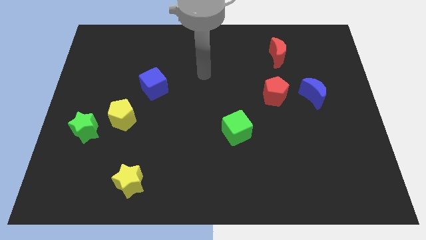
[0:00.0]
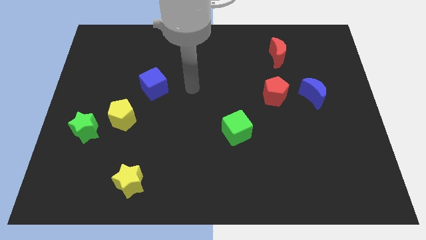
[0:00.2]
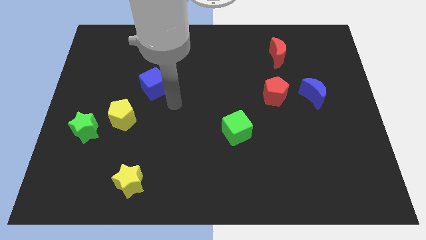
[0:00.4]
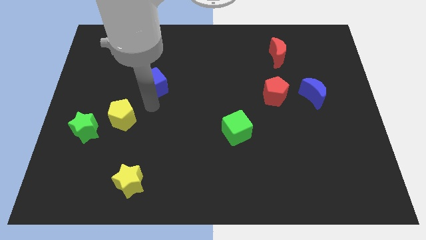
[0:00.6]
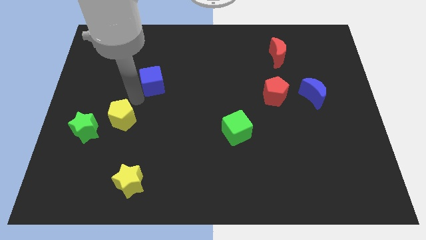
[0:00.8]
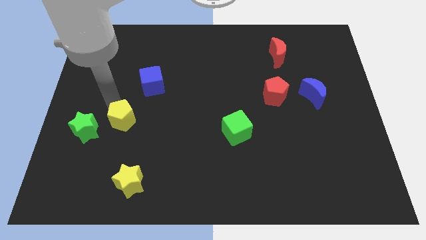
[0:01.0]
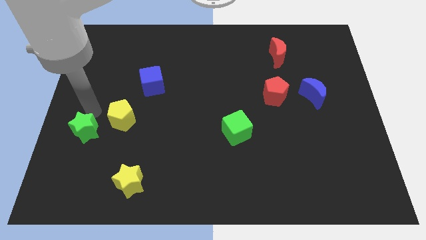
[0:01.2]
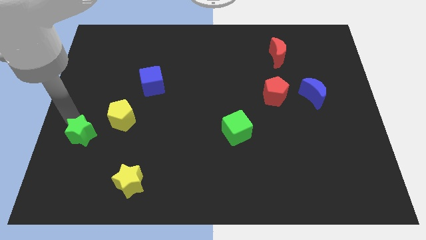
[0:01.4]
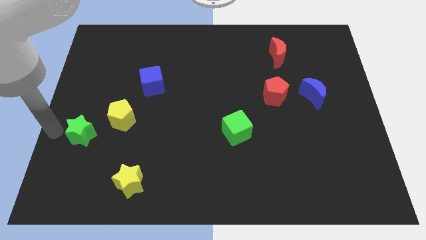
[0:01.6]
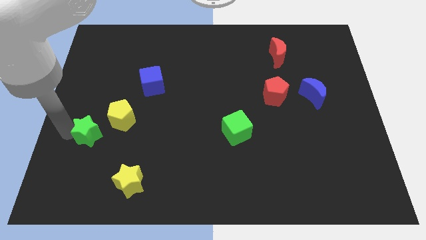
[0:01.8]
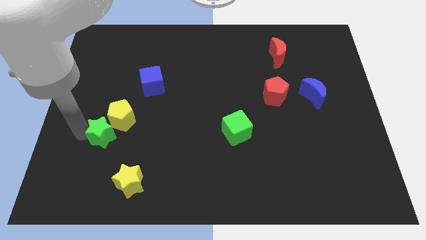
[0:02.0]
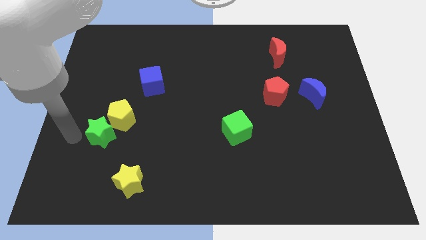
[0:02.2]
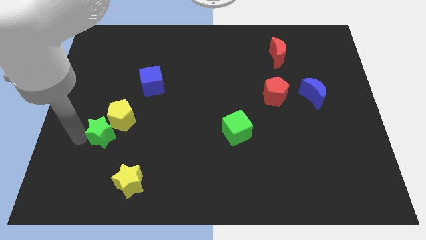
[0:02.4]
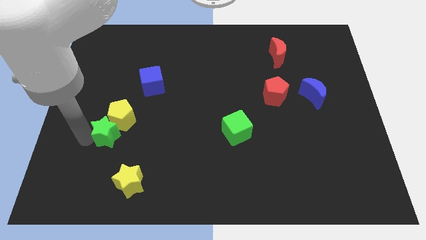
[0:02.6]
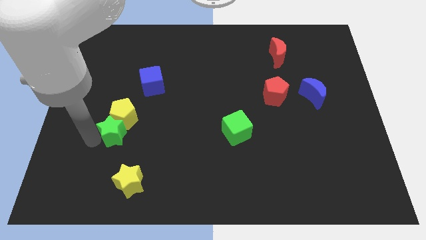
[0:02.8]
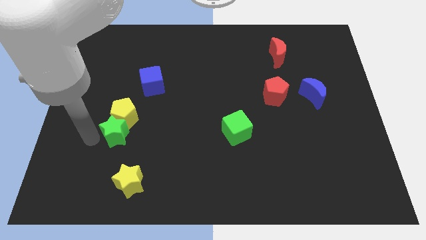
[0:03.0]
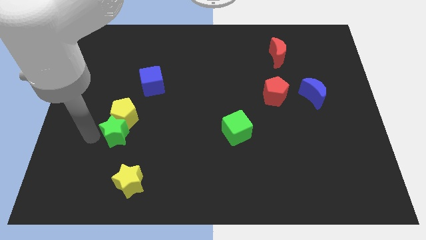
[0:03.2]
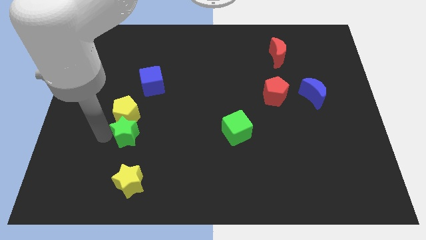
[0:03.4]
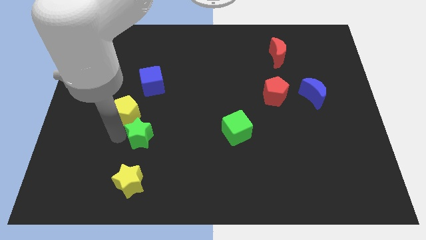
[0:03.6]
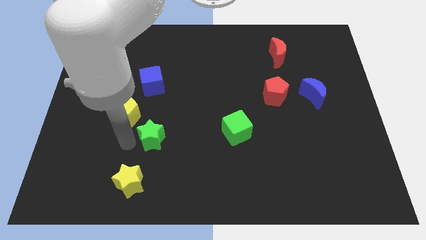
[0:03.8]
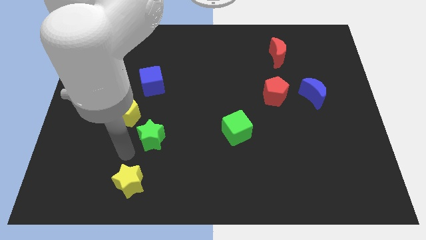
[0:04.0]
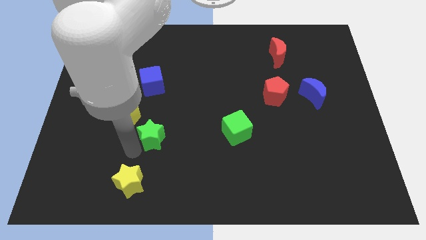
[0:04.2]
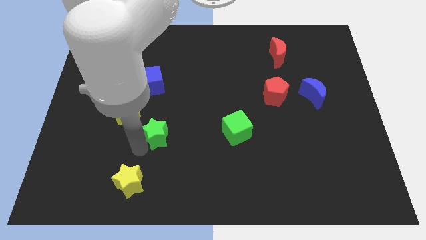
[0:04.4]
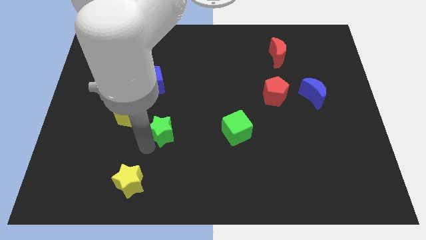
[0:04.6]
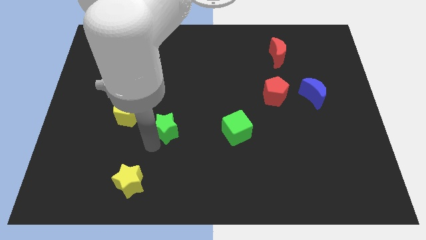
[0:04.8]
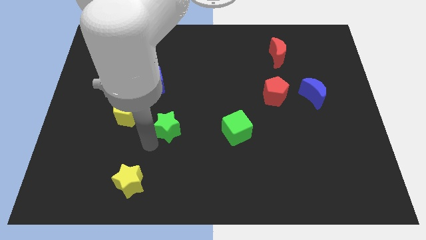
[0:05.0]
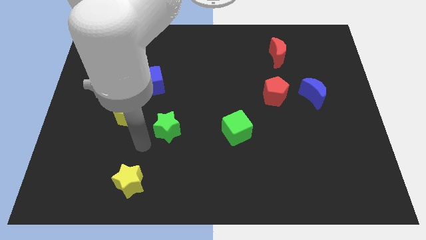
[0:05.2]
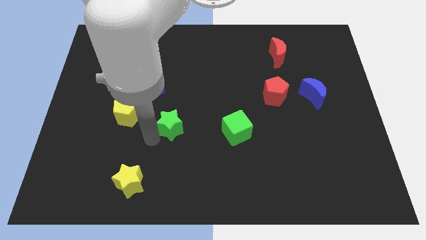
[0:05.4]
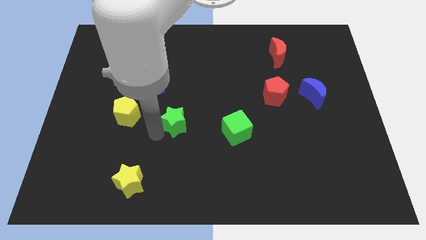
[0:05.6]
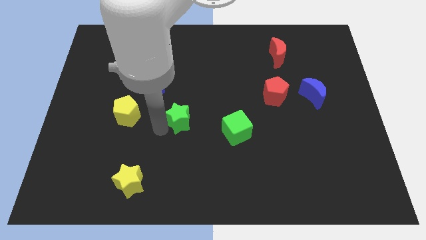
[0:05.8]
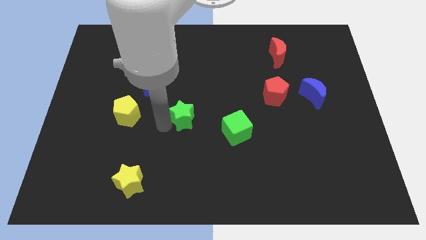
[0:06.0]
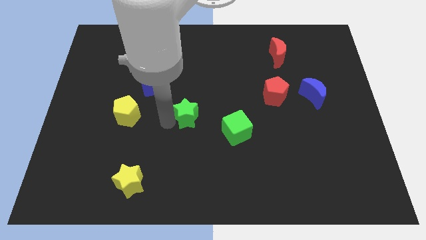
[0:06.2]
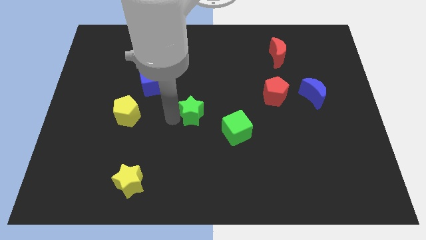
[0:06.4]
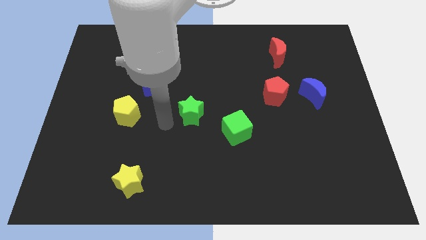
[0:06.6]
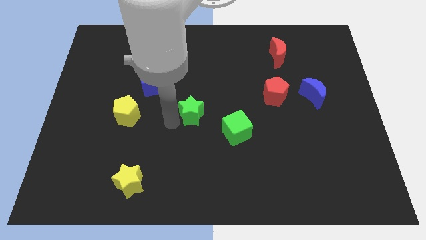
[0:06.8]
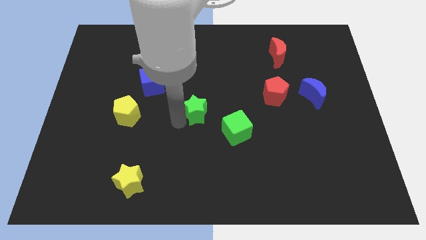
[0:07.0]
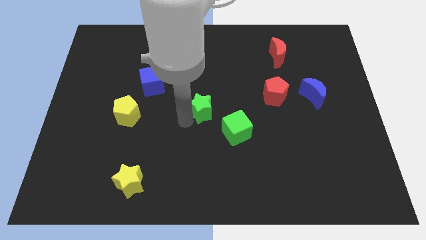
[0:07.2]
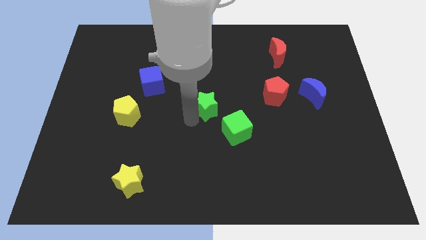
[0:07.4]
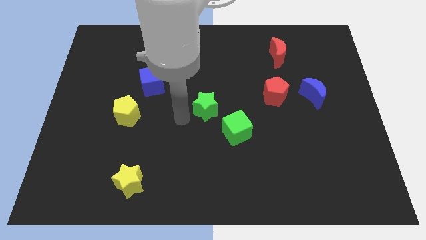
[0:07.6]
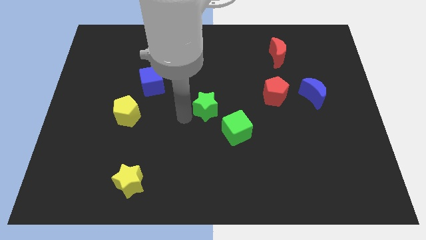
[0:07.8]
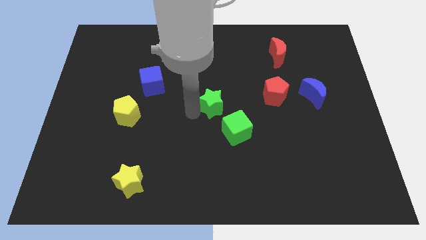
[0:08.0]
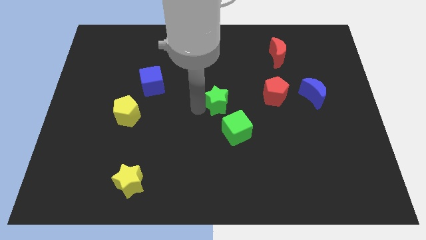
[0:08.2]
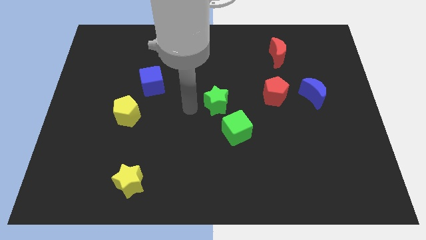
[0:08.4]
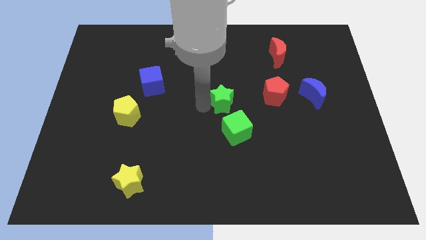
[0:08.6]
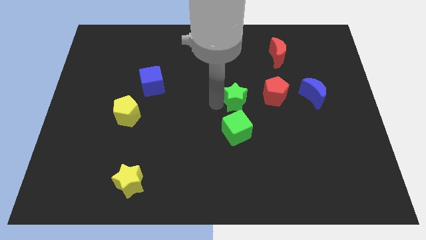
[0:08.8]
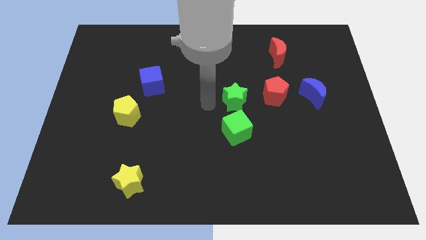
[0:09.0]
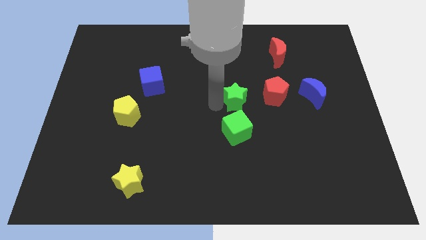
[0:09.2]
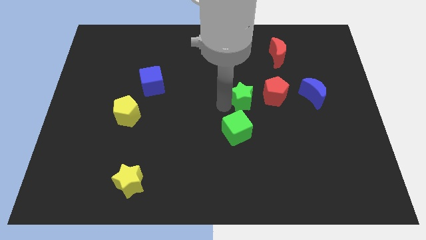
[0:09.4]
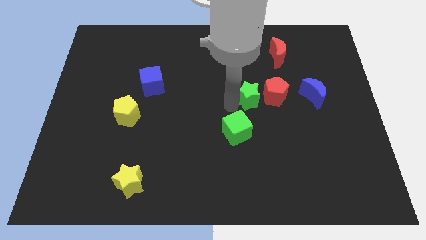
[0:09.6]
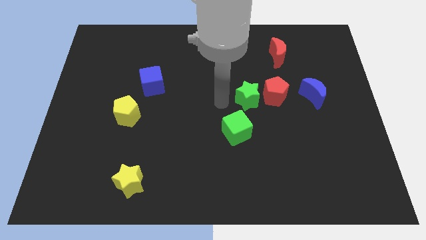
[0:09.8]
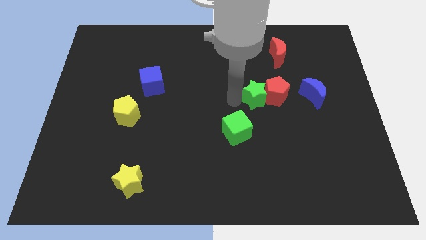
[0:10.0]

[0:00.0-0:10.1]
move the green star close to the red pentagon

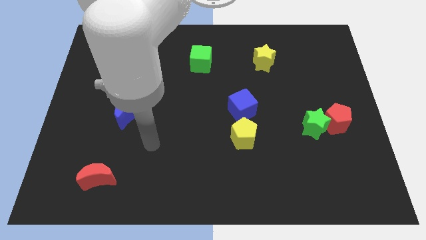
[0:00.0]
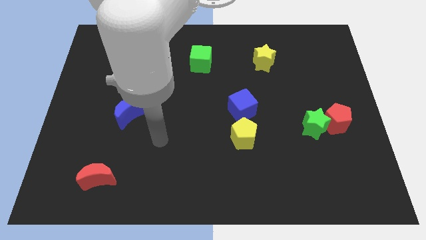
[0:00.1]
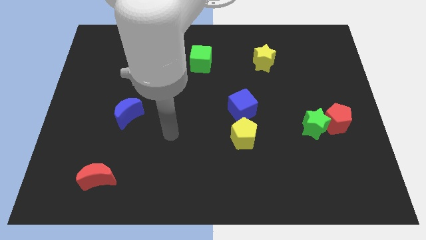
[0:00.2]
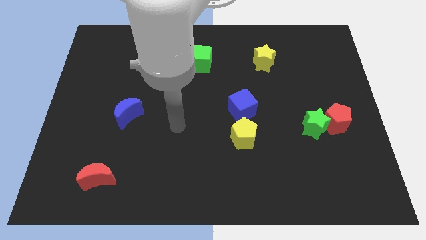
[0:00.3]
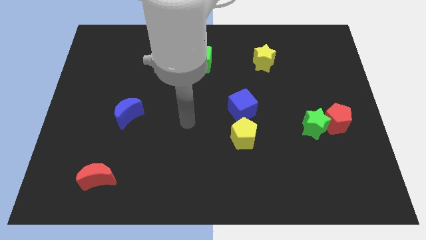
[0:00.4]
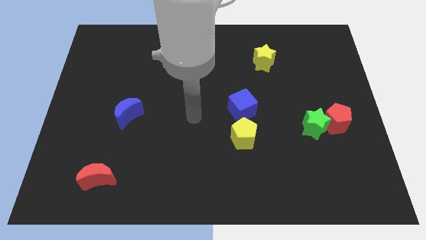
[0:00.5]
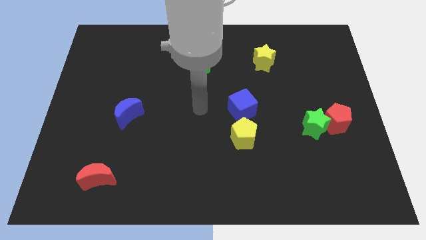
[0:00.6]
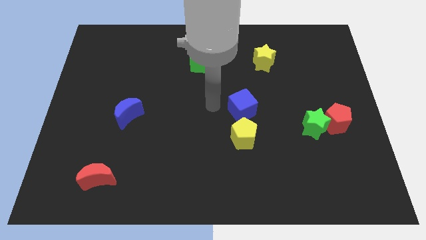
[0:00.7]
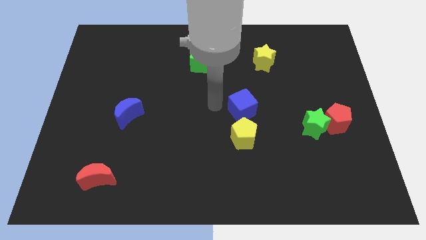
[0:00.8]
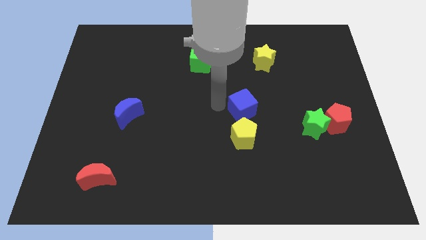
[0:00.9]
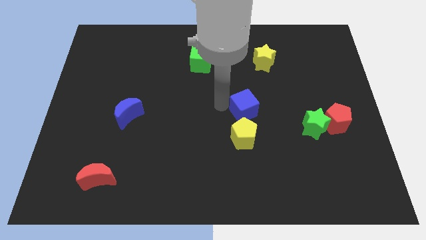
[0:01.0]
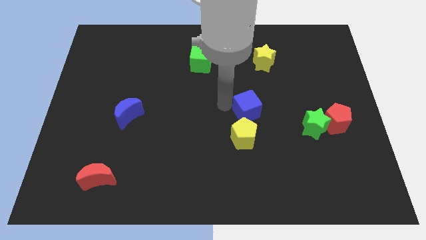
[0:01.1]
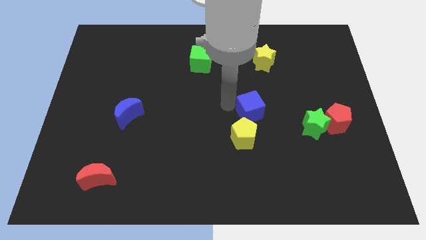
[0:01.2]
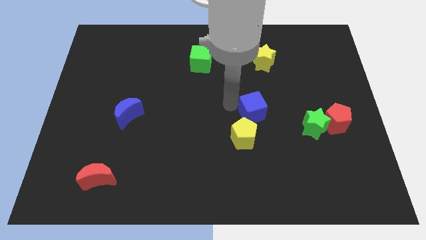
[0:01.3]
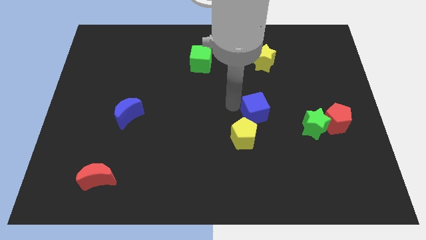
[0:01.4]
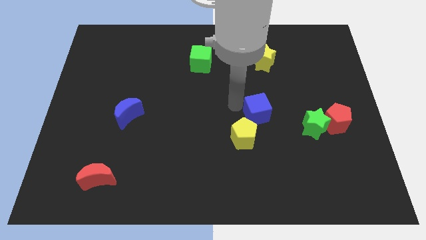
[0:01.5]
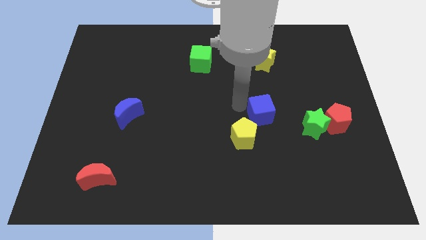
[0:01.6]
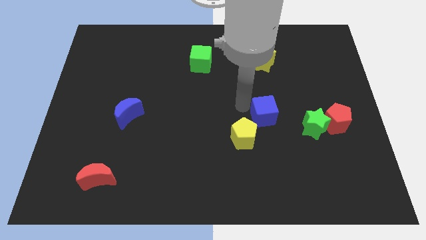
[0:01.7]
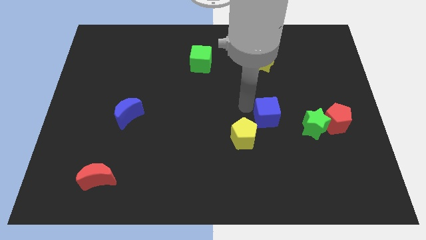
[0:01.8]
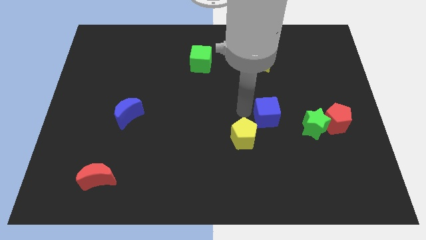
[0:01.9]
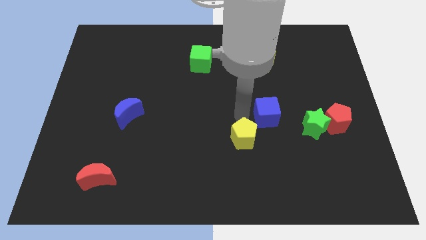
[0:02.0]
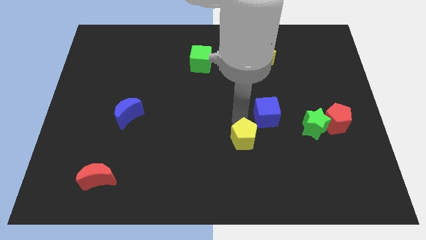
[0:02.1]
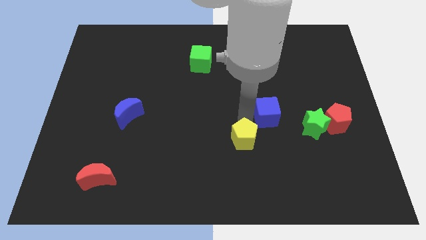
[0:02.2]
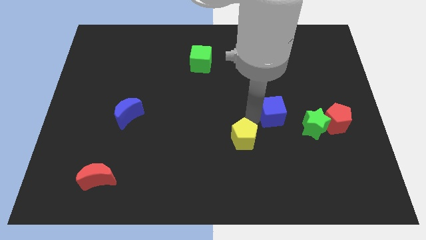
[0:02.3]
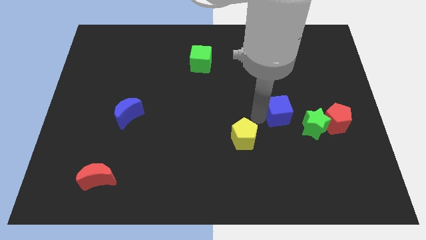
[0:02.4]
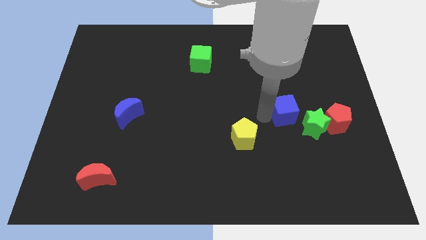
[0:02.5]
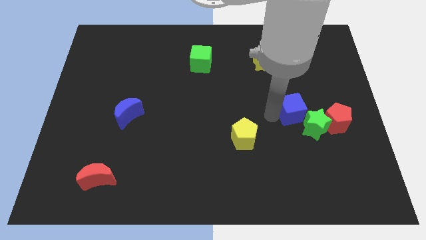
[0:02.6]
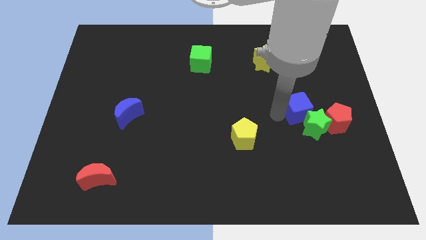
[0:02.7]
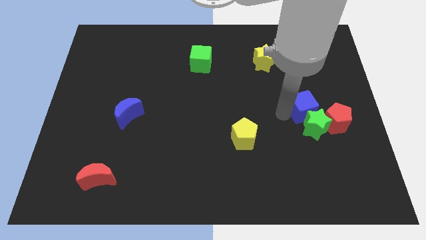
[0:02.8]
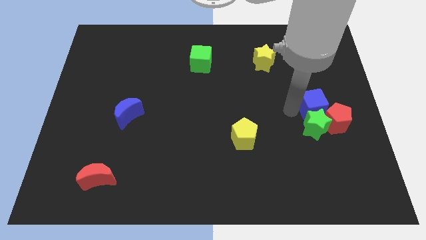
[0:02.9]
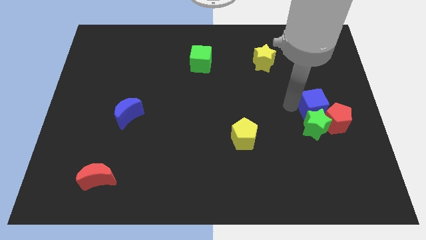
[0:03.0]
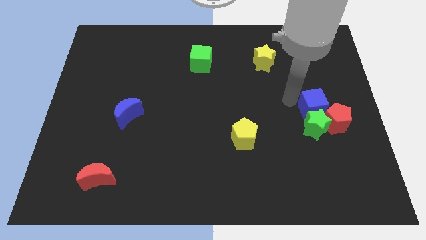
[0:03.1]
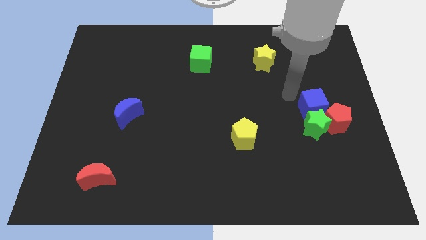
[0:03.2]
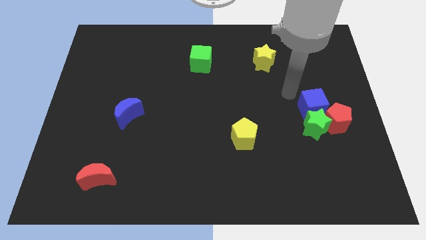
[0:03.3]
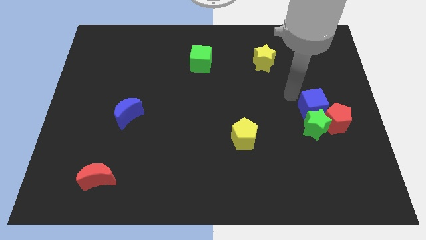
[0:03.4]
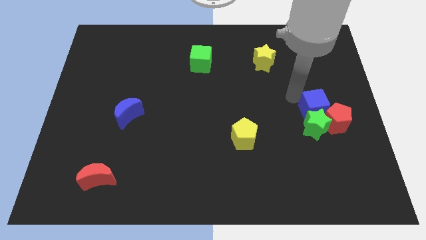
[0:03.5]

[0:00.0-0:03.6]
slide the blue cube to the red pentagon
